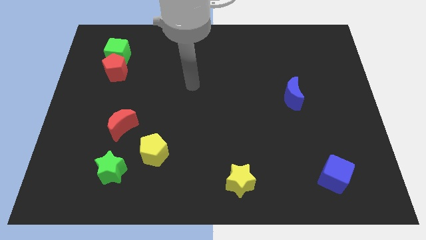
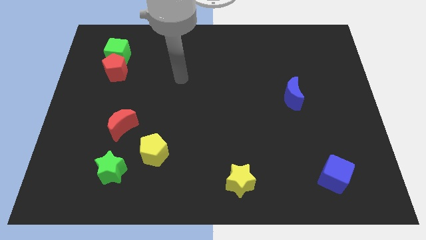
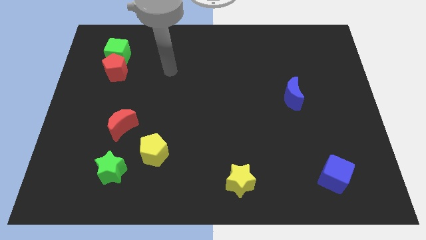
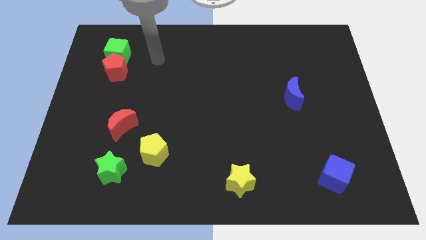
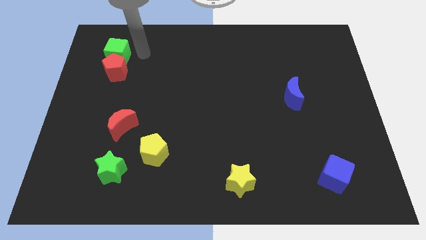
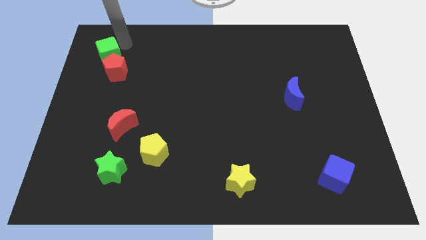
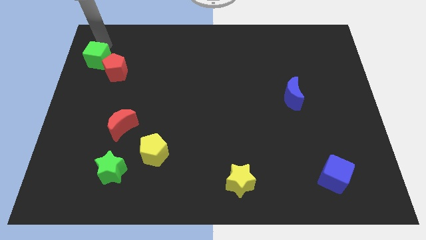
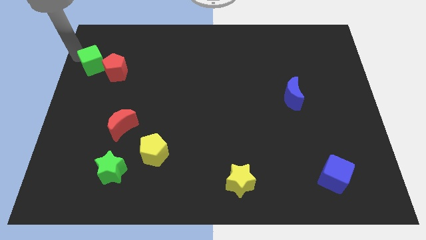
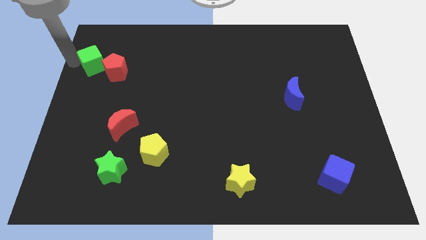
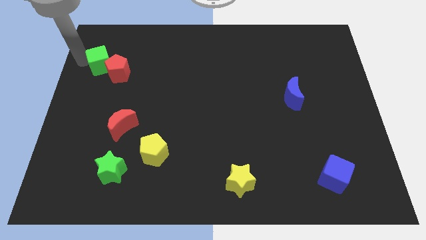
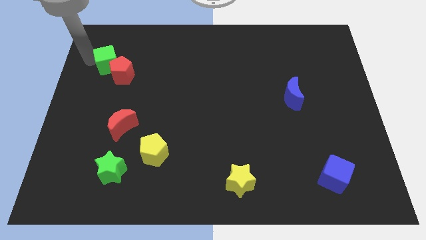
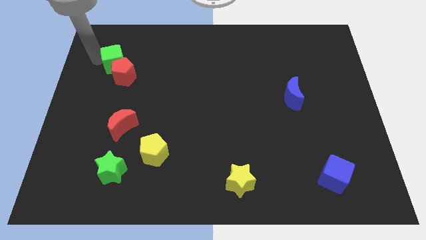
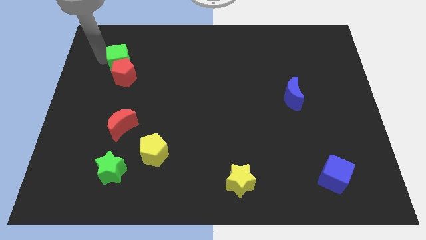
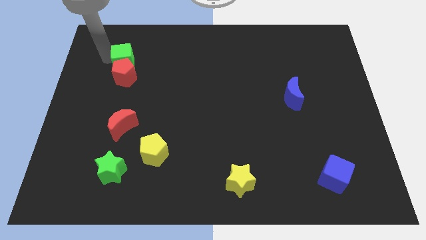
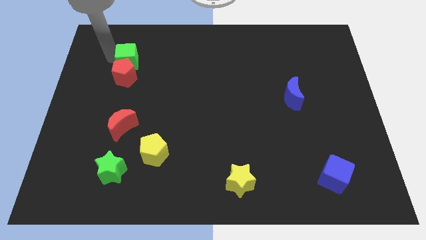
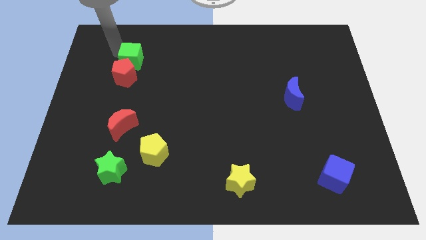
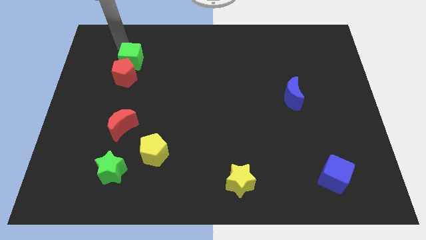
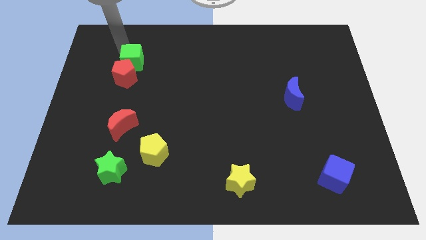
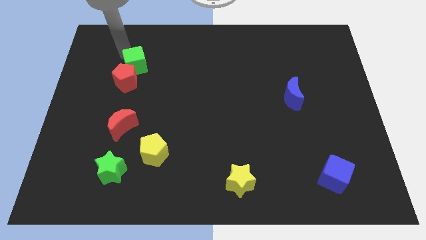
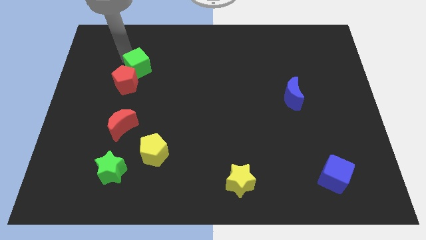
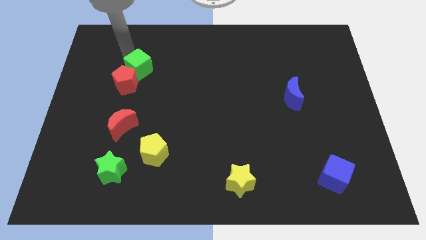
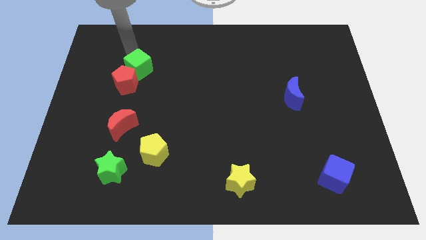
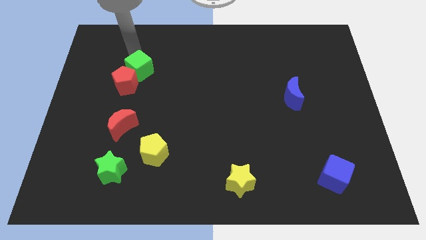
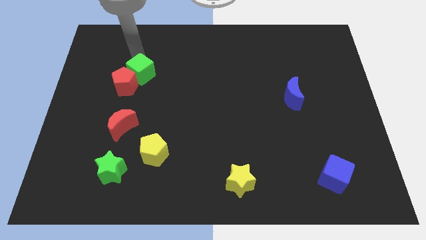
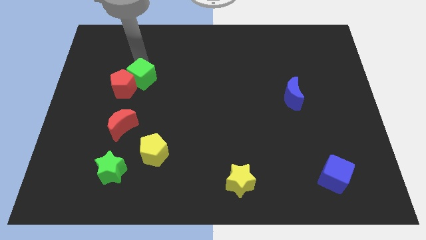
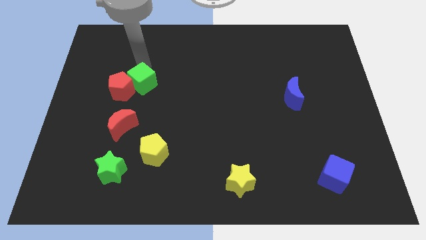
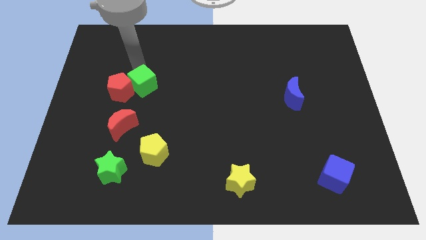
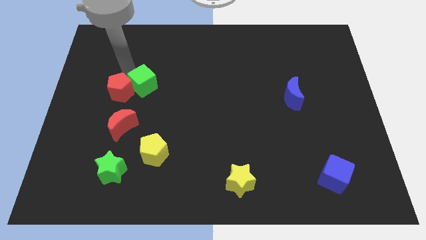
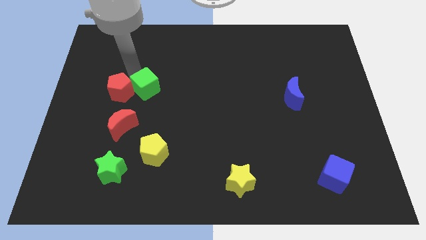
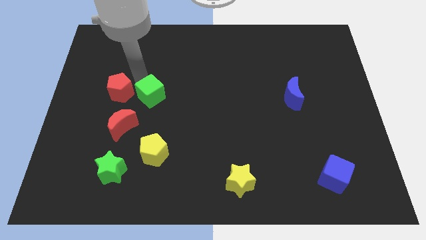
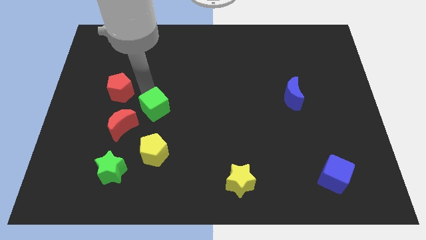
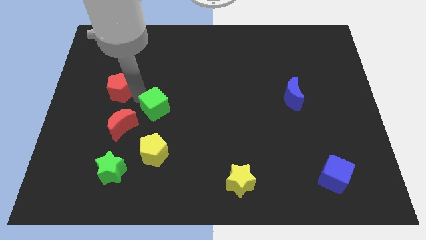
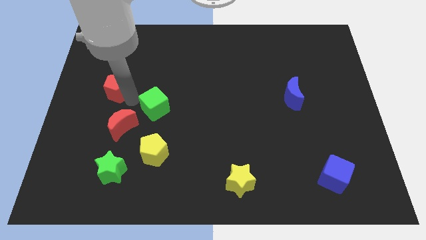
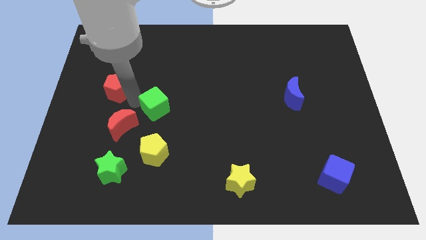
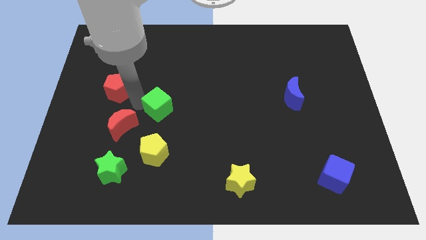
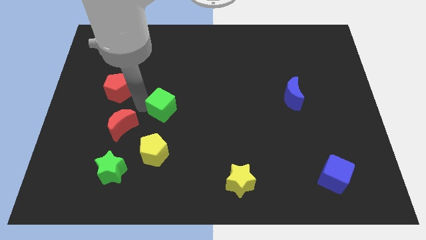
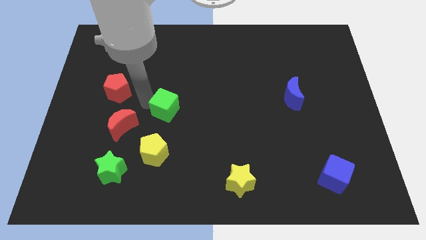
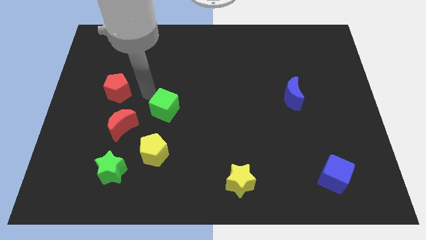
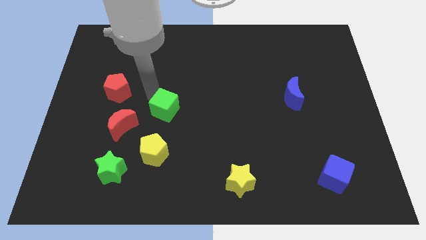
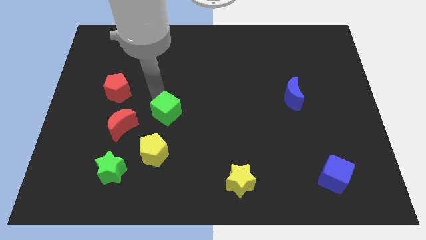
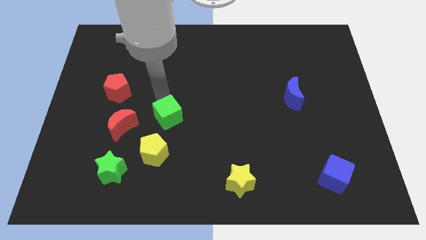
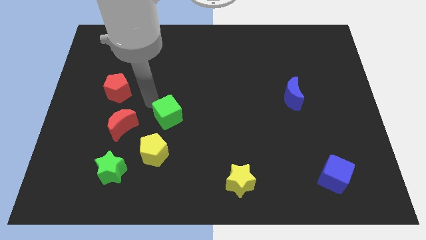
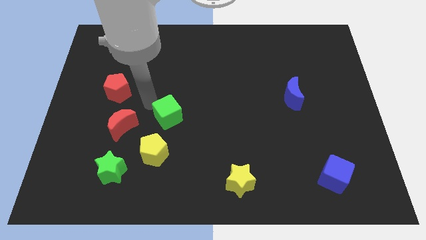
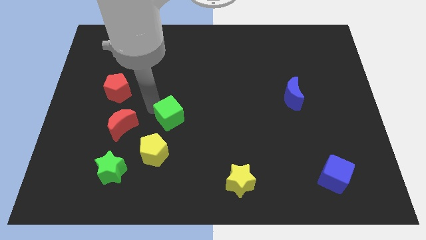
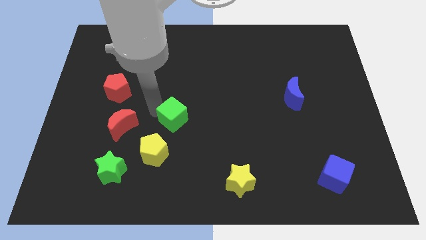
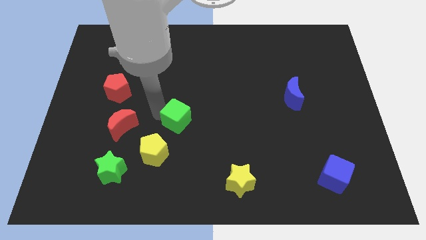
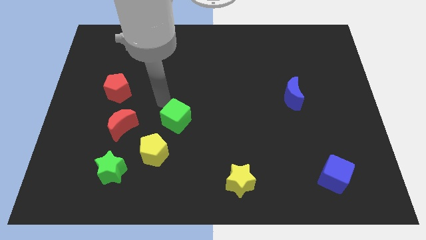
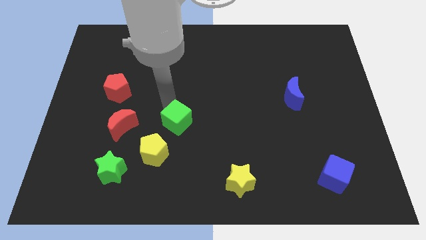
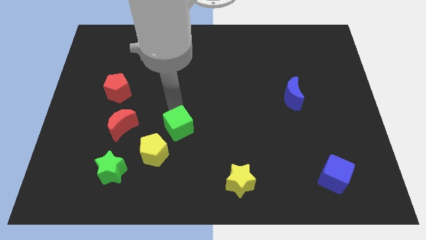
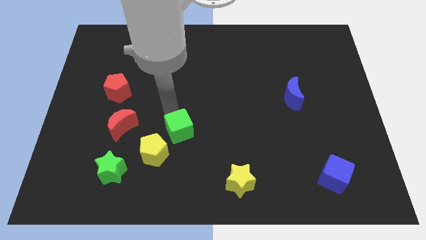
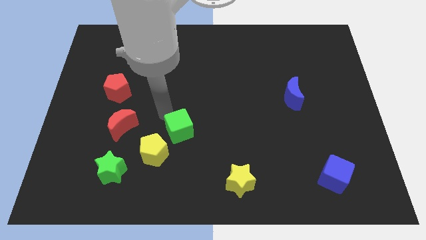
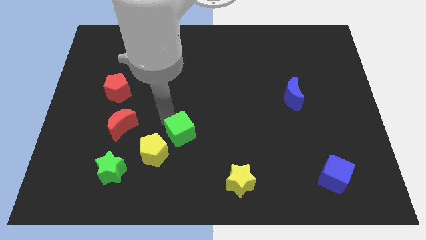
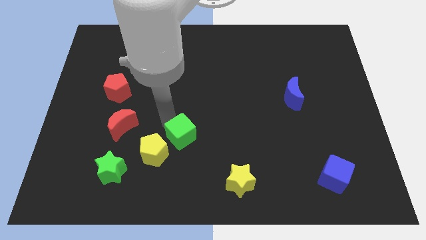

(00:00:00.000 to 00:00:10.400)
put the green cube to the right of the yellow pentagon

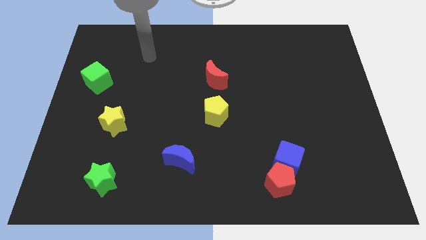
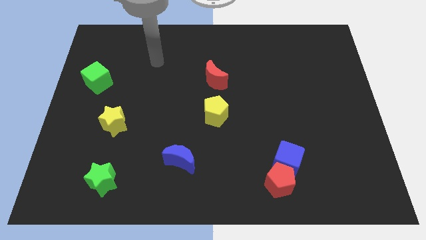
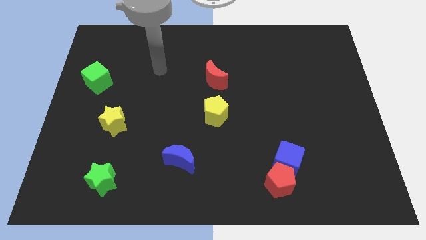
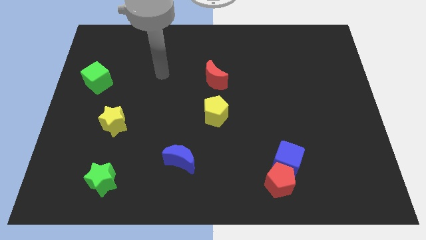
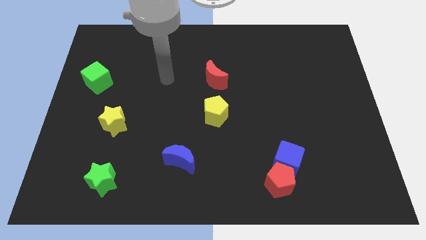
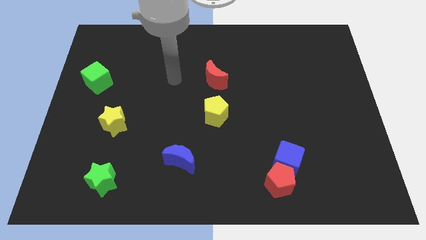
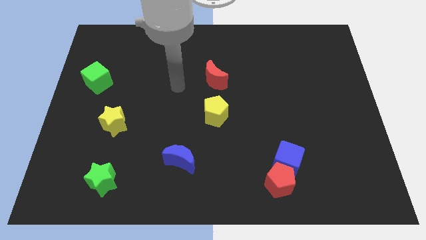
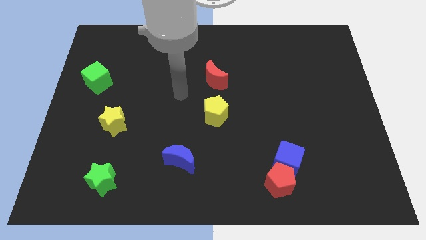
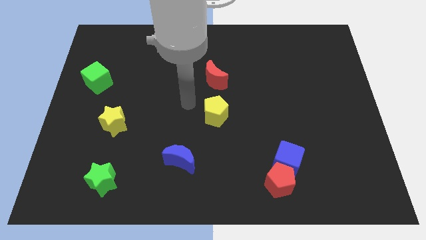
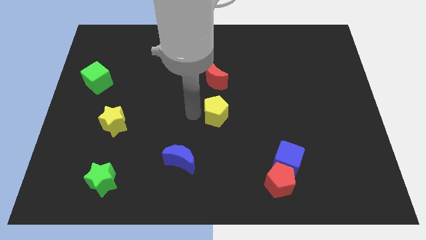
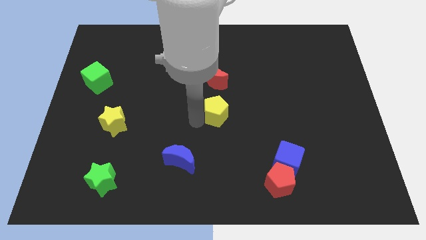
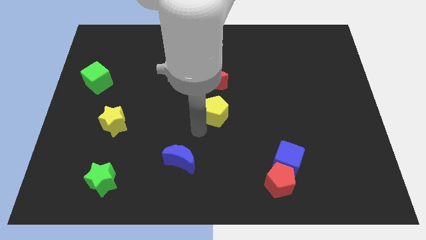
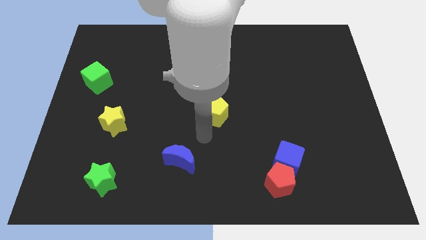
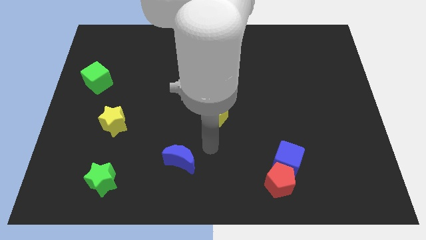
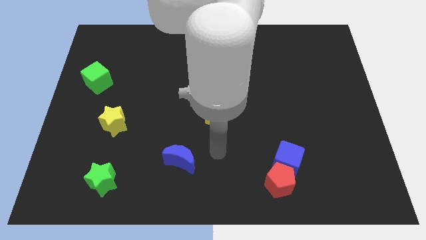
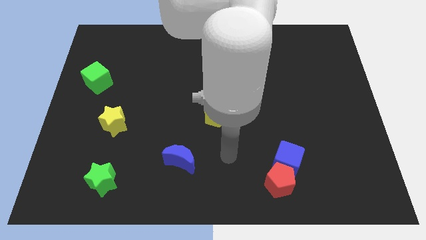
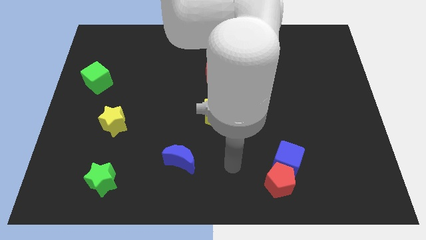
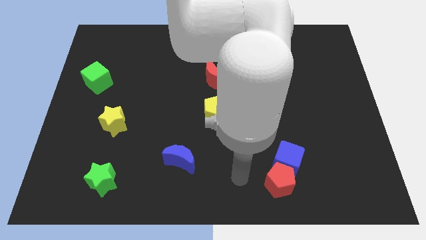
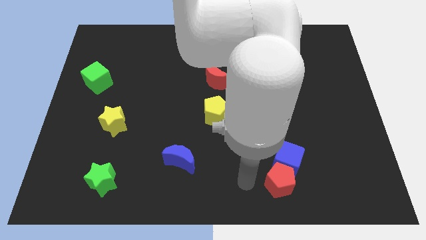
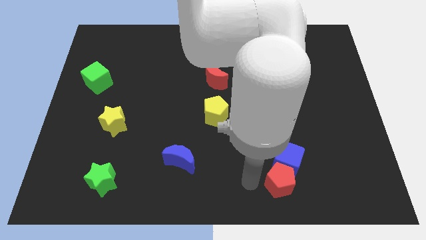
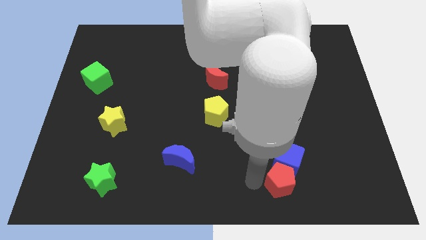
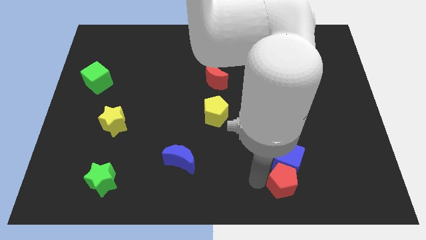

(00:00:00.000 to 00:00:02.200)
move the red pentagon diagonally down and to the right of the blue cube

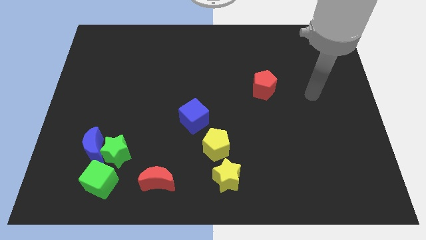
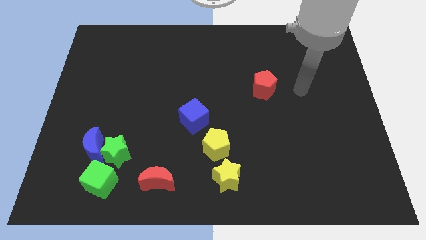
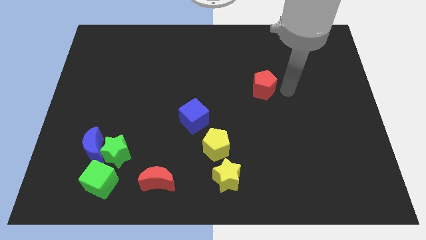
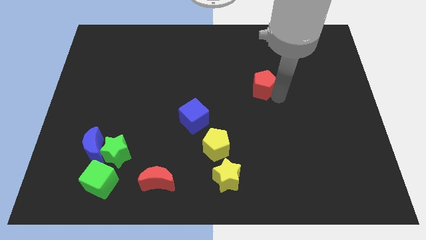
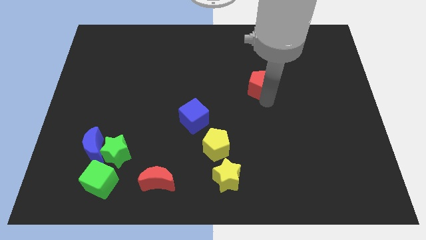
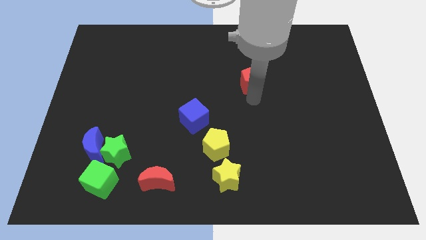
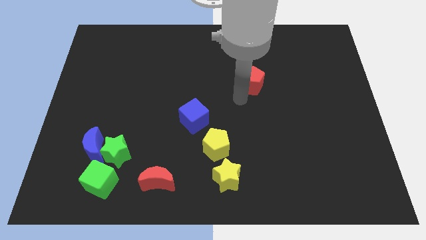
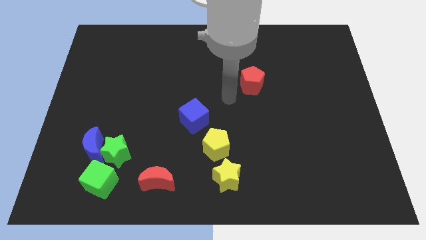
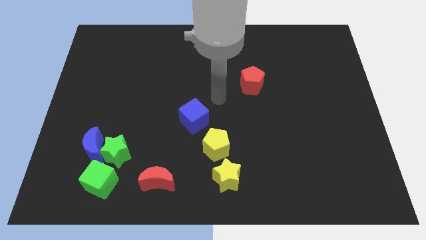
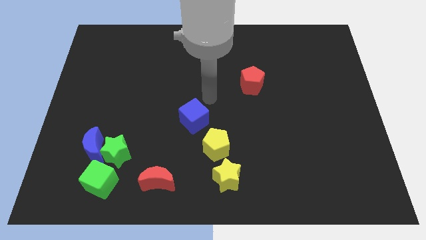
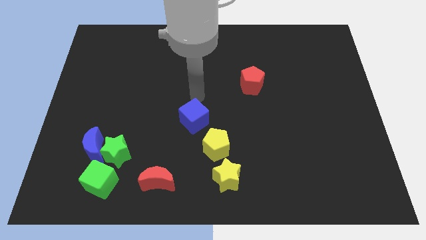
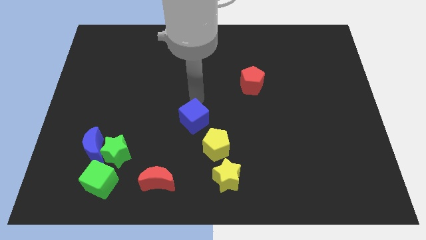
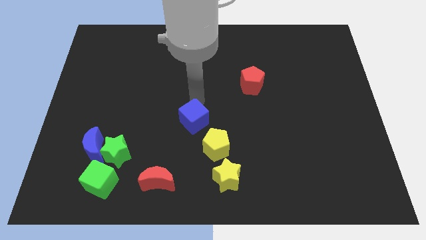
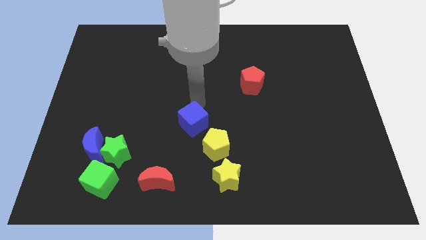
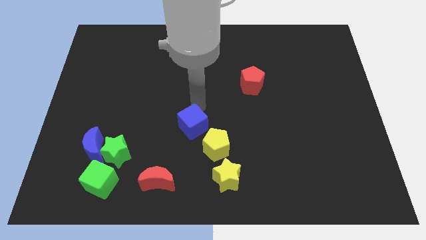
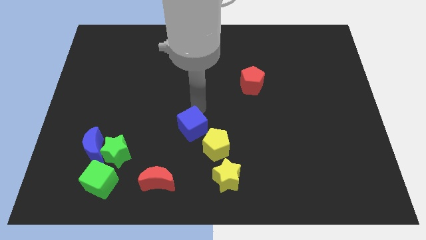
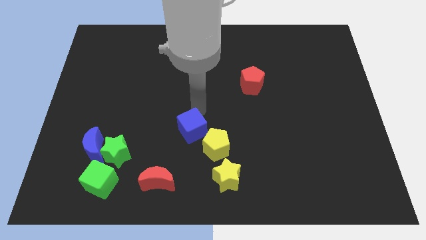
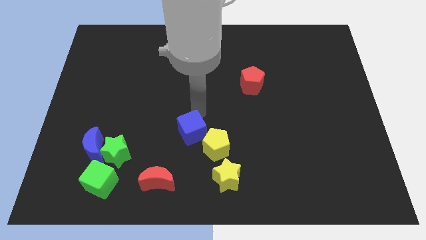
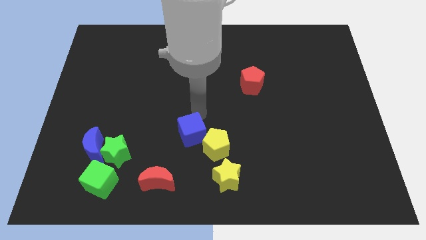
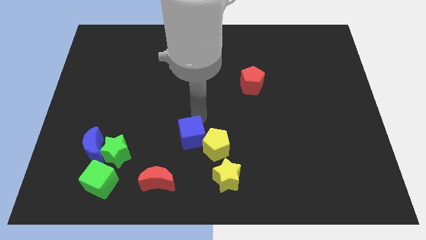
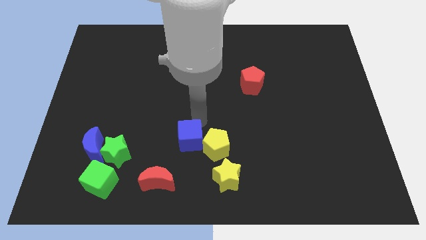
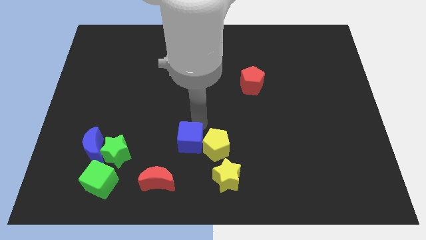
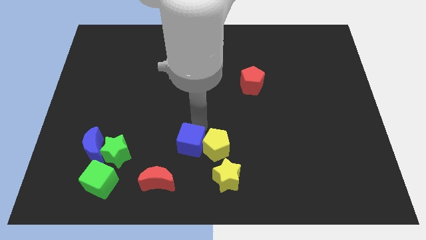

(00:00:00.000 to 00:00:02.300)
put the blue cube to the bottom left side of the yellow pentagon
